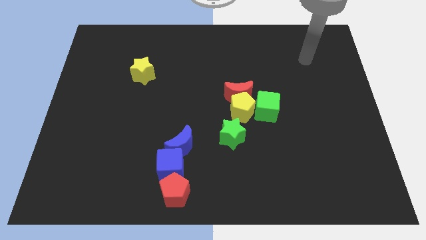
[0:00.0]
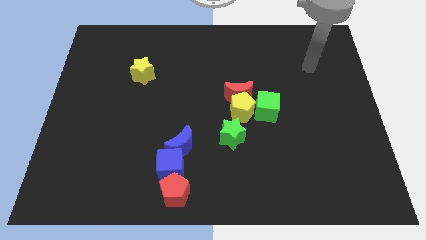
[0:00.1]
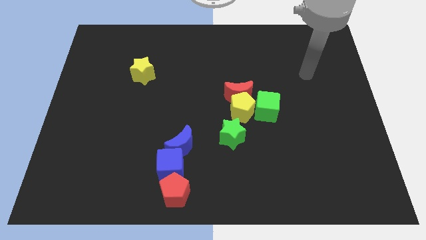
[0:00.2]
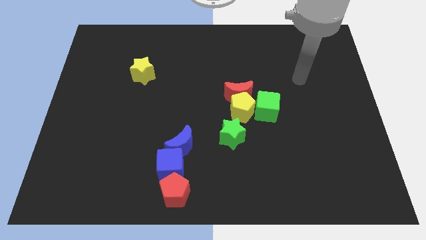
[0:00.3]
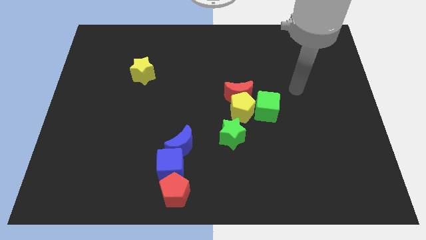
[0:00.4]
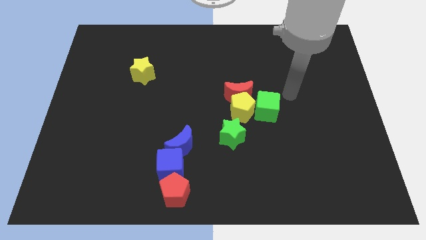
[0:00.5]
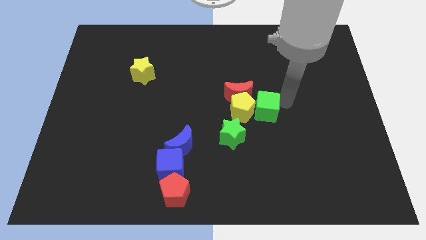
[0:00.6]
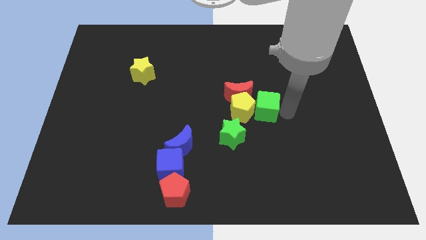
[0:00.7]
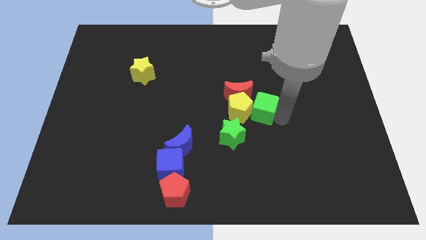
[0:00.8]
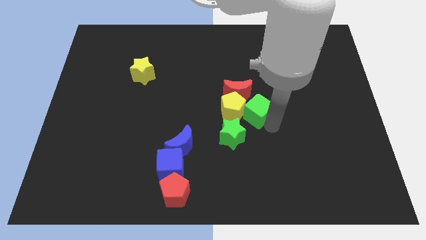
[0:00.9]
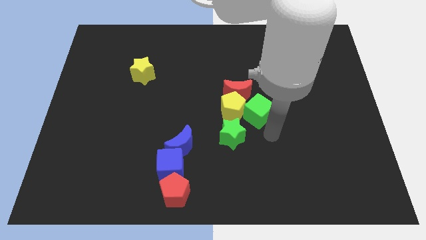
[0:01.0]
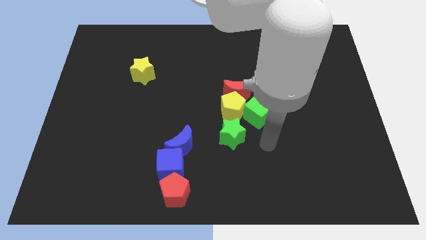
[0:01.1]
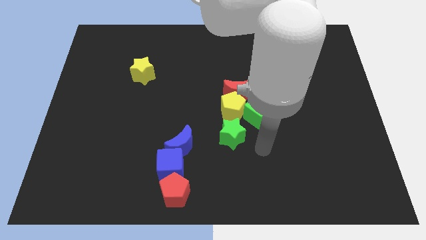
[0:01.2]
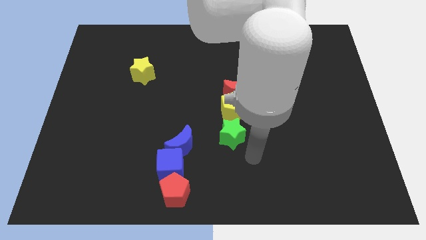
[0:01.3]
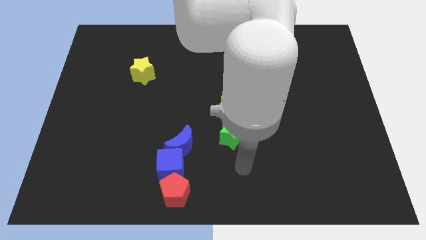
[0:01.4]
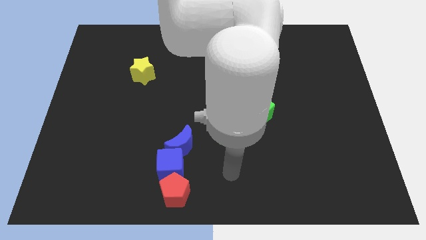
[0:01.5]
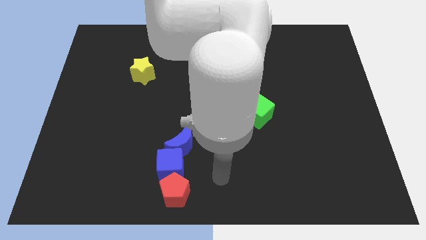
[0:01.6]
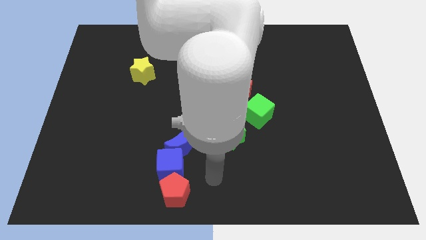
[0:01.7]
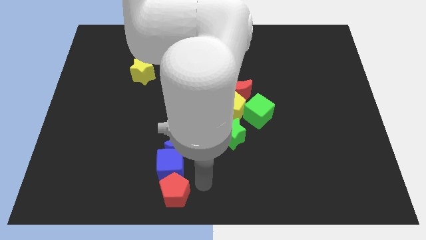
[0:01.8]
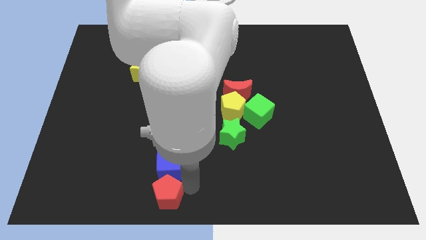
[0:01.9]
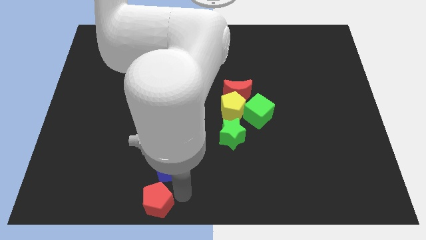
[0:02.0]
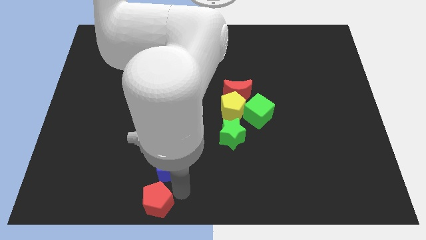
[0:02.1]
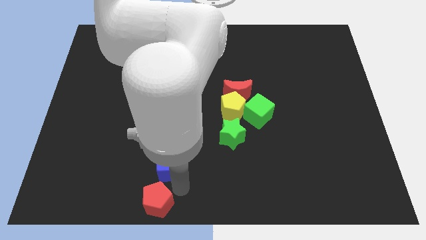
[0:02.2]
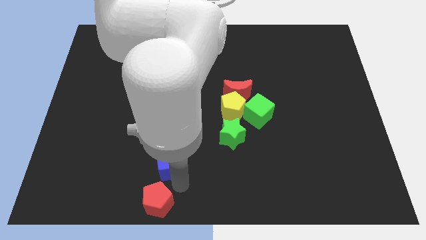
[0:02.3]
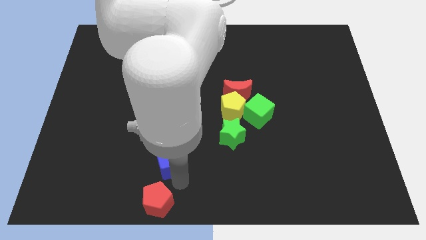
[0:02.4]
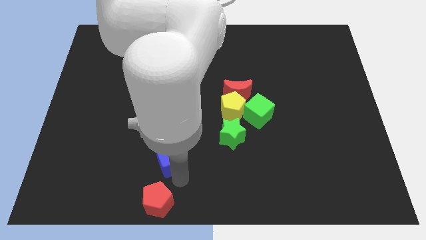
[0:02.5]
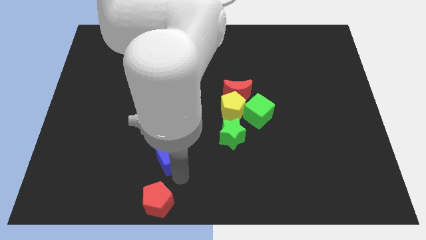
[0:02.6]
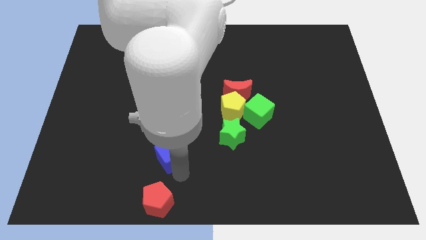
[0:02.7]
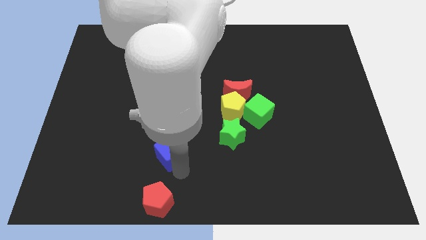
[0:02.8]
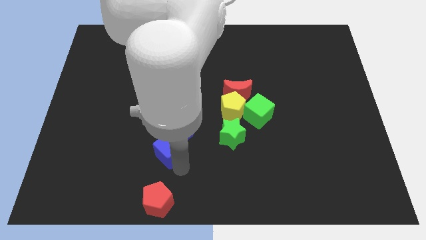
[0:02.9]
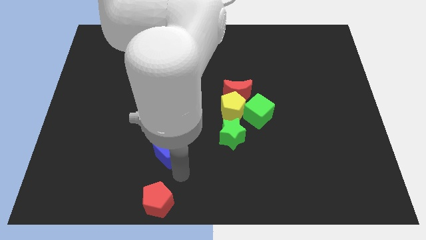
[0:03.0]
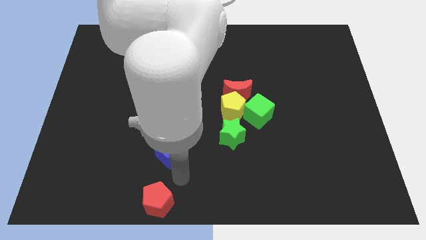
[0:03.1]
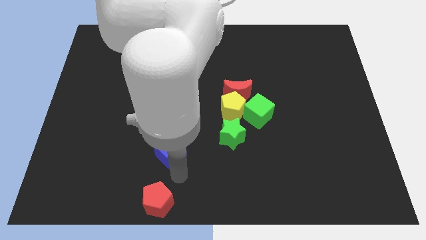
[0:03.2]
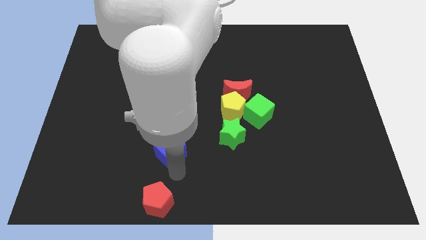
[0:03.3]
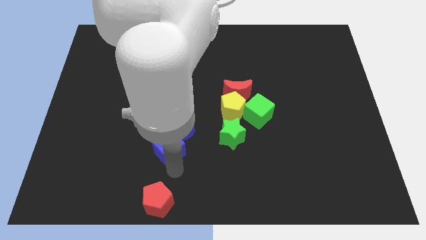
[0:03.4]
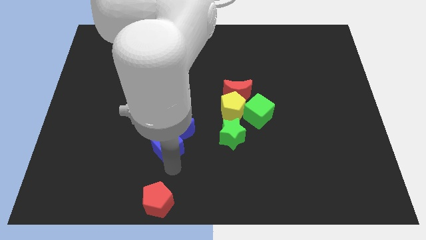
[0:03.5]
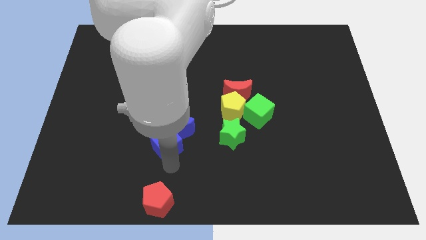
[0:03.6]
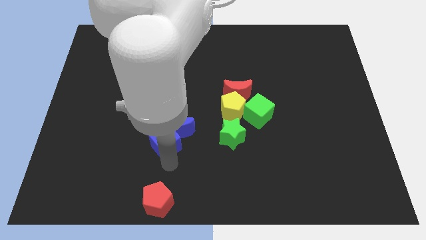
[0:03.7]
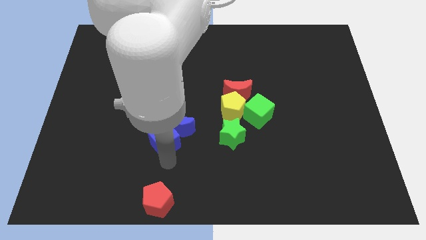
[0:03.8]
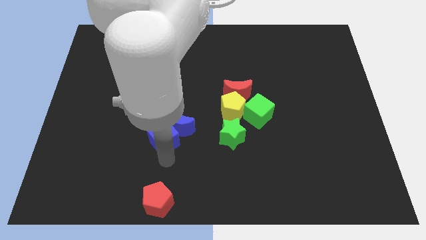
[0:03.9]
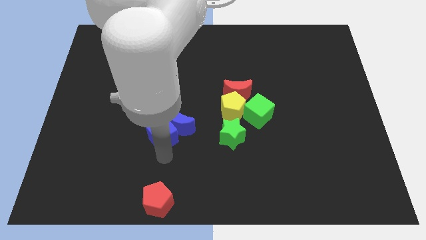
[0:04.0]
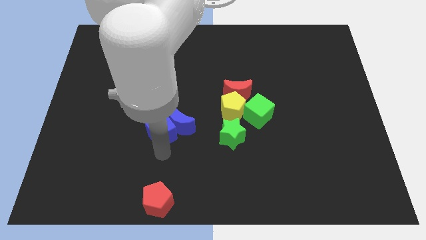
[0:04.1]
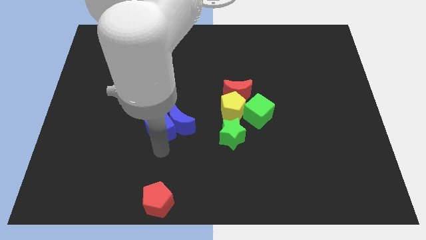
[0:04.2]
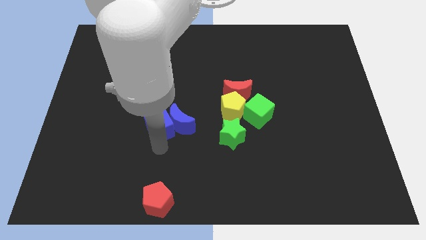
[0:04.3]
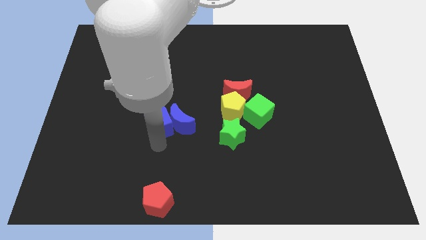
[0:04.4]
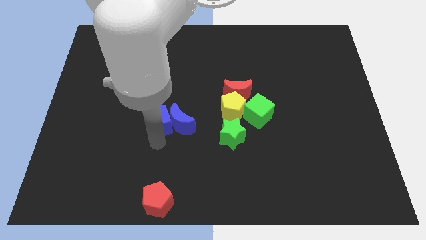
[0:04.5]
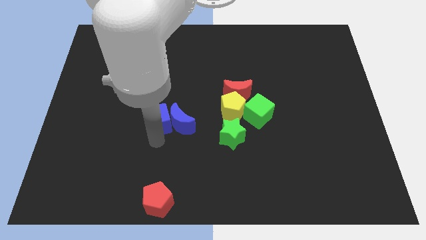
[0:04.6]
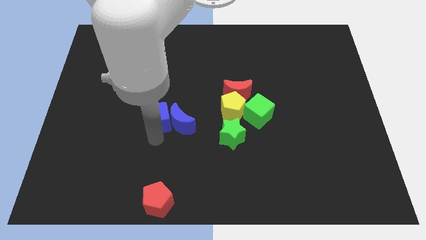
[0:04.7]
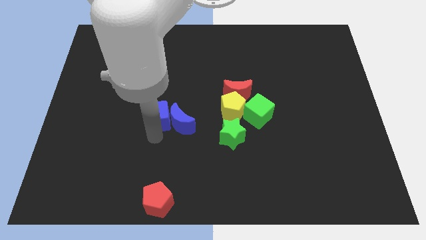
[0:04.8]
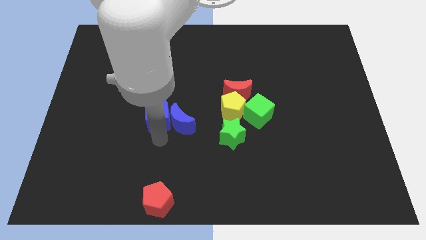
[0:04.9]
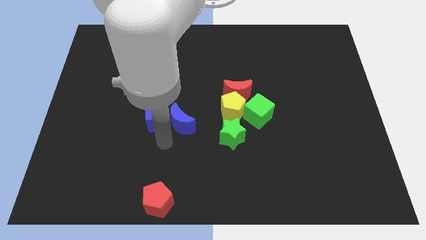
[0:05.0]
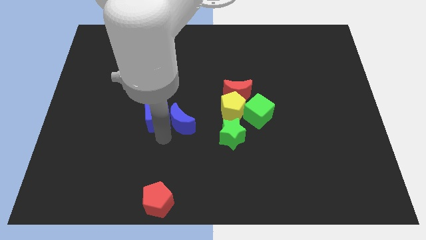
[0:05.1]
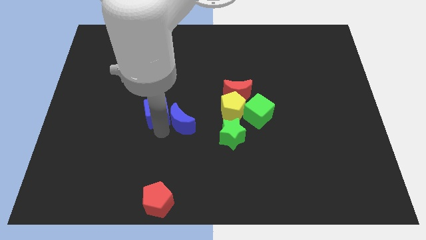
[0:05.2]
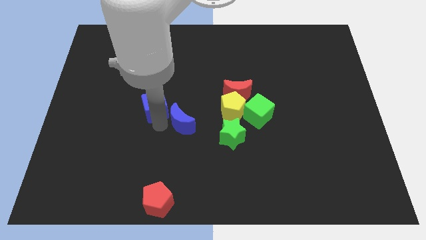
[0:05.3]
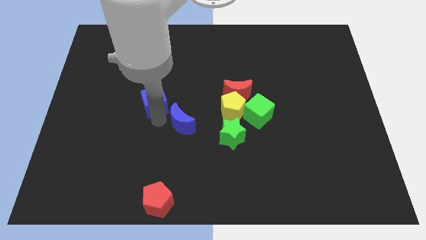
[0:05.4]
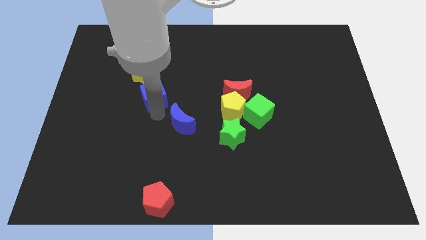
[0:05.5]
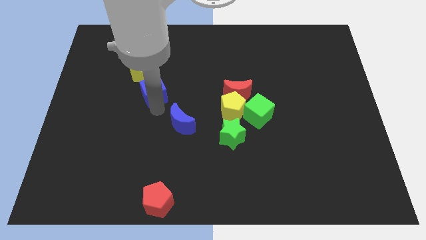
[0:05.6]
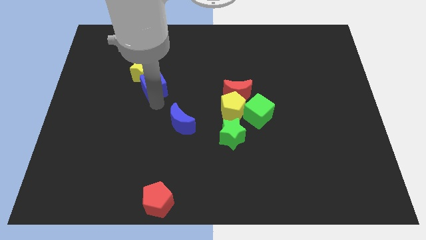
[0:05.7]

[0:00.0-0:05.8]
slide the blue cube close to the yellow star

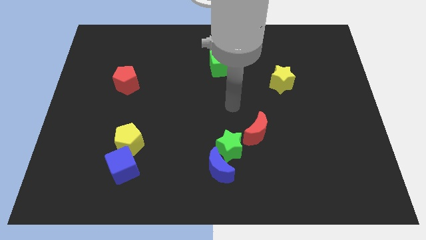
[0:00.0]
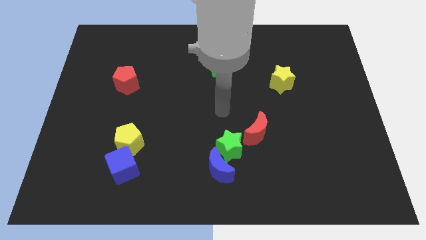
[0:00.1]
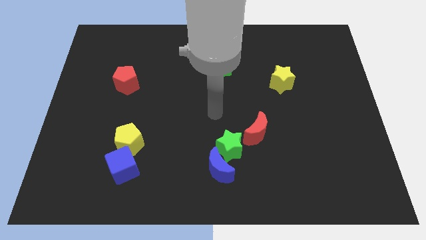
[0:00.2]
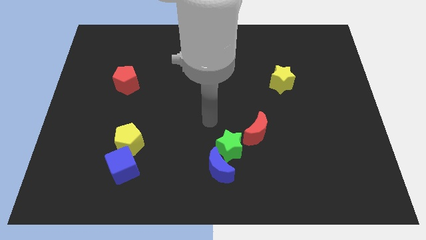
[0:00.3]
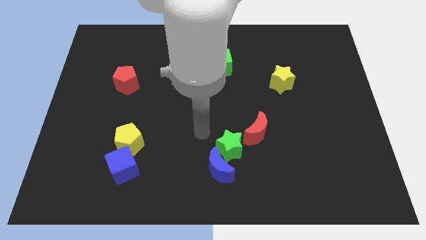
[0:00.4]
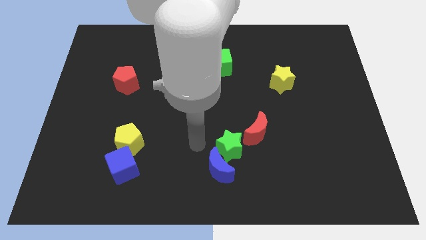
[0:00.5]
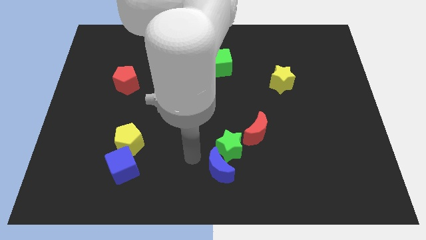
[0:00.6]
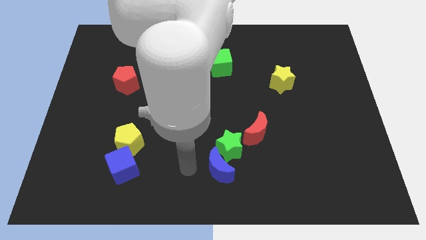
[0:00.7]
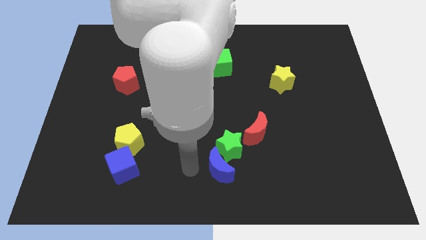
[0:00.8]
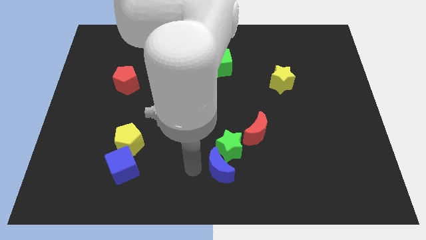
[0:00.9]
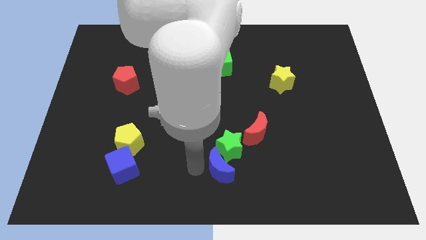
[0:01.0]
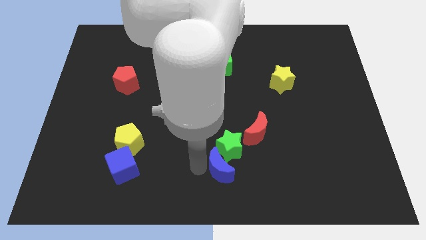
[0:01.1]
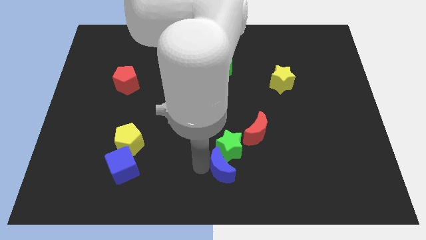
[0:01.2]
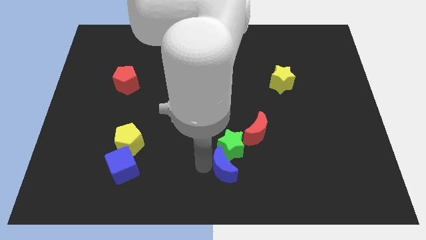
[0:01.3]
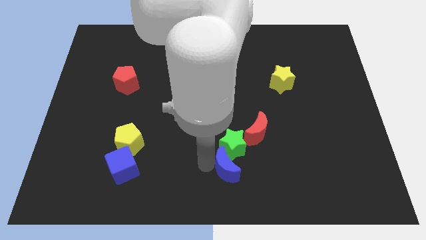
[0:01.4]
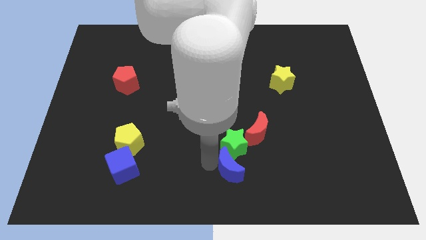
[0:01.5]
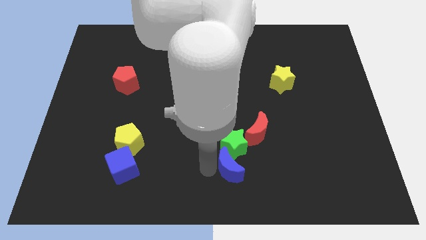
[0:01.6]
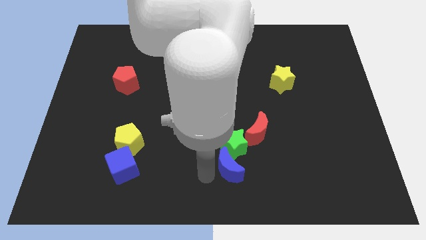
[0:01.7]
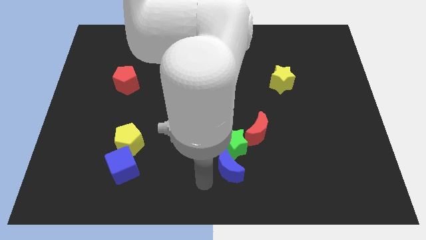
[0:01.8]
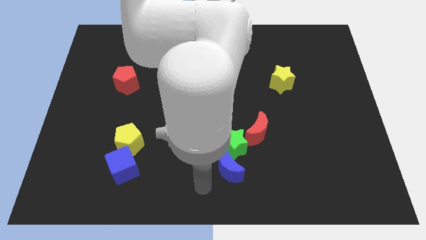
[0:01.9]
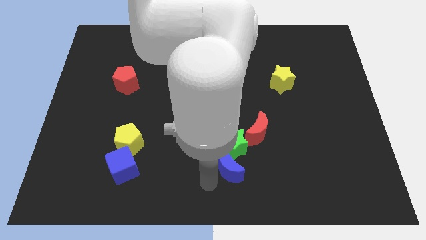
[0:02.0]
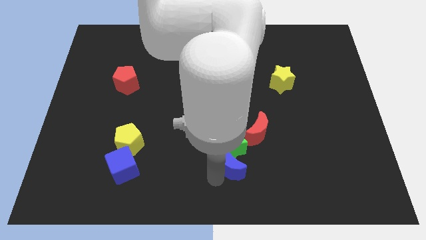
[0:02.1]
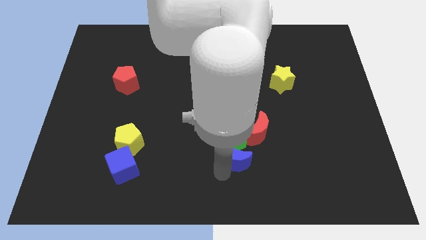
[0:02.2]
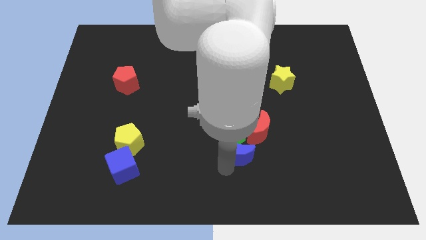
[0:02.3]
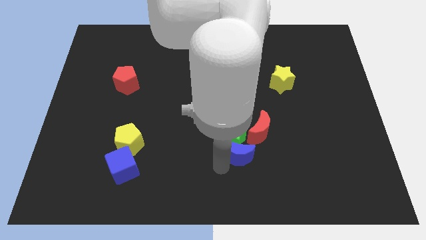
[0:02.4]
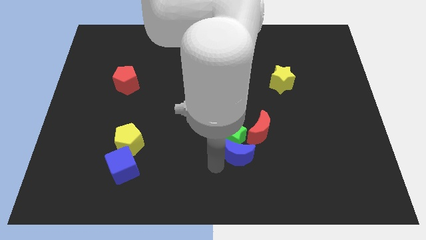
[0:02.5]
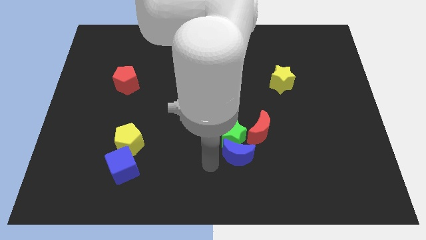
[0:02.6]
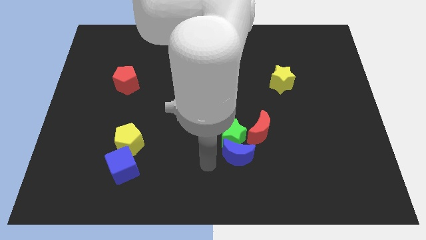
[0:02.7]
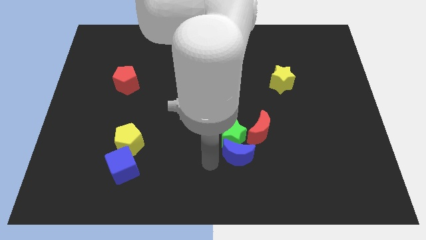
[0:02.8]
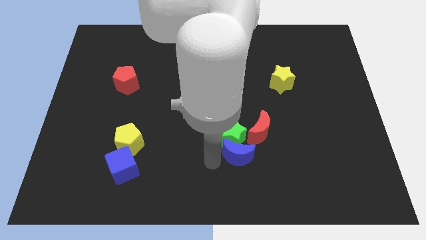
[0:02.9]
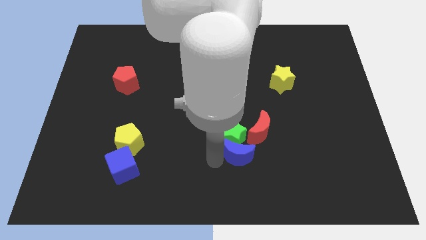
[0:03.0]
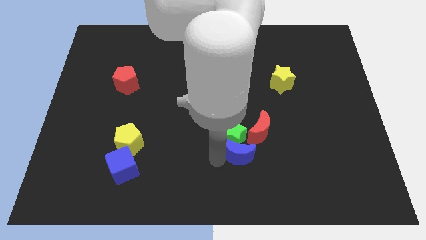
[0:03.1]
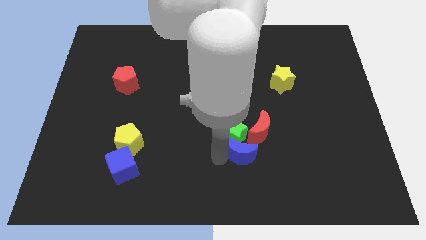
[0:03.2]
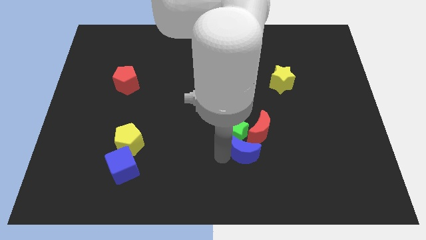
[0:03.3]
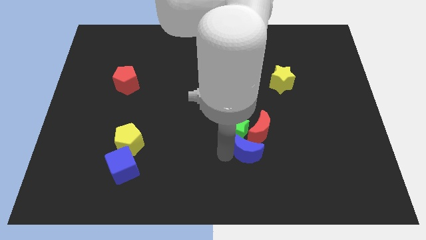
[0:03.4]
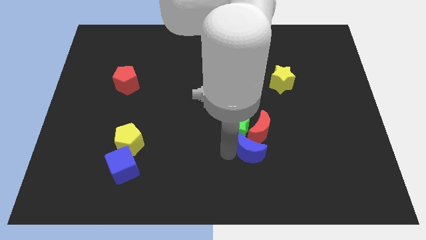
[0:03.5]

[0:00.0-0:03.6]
slide the blue moon towards the red moon
